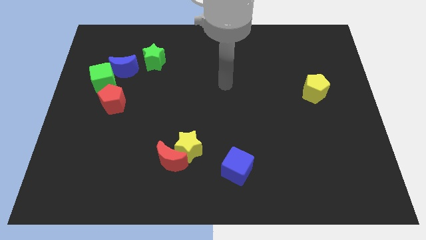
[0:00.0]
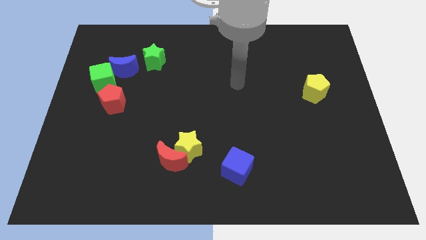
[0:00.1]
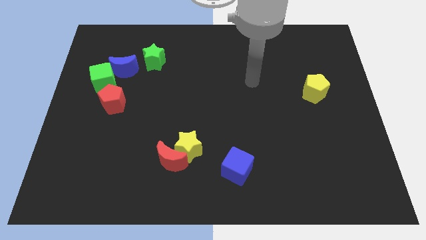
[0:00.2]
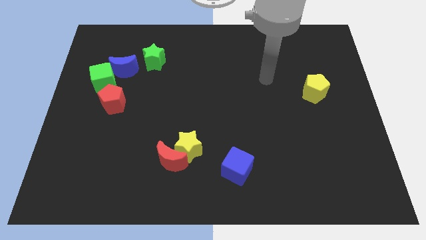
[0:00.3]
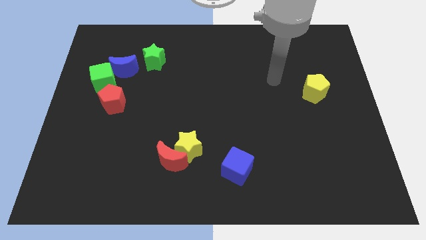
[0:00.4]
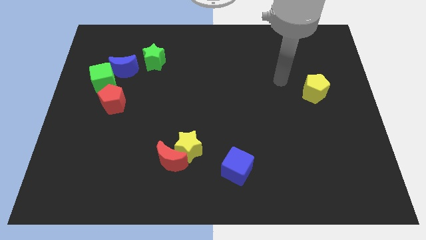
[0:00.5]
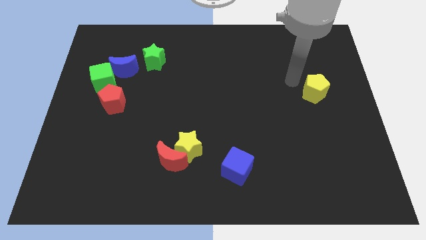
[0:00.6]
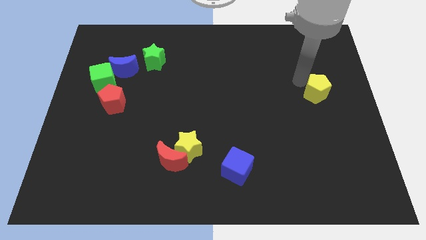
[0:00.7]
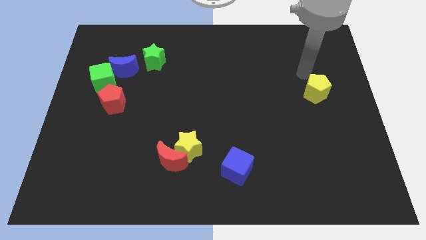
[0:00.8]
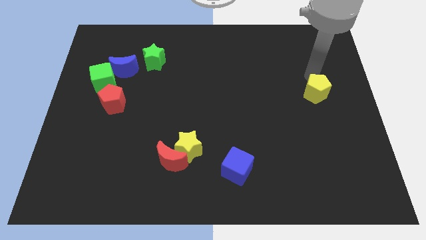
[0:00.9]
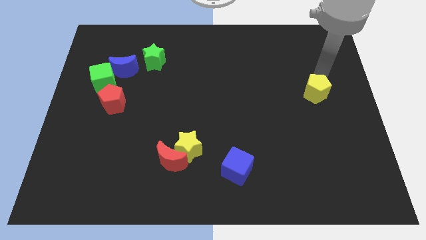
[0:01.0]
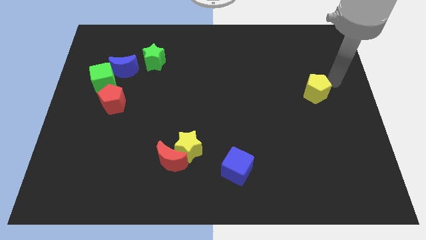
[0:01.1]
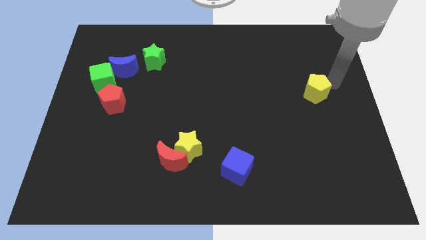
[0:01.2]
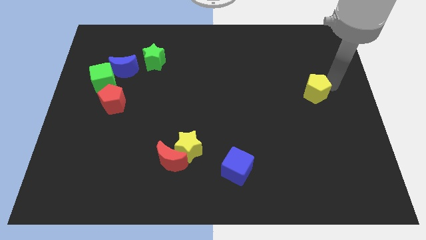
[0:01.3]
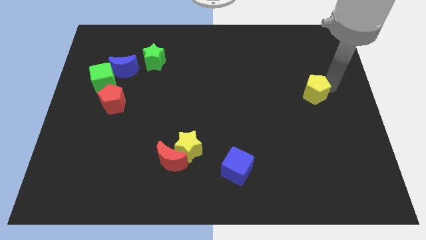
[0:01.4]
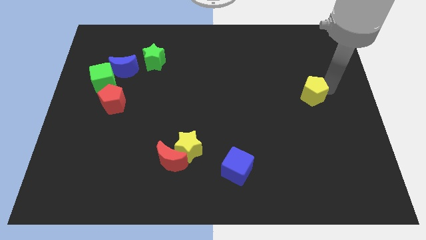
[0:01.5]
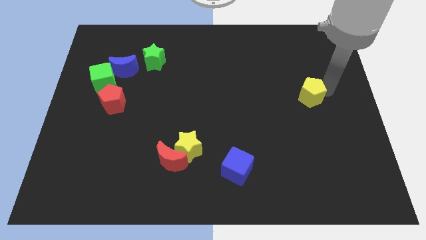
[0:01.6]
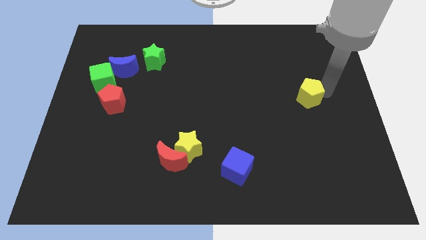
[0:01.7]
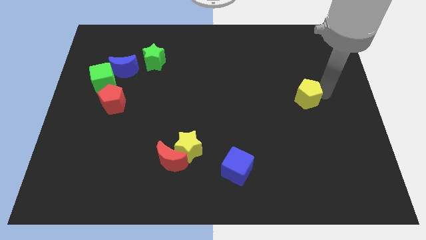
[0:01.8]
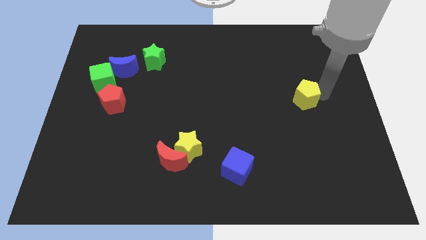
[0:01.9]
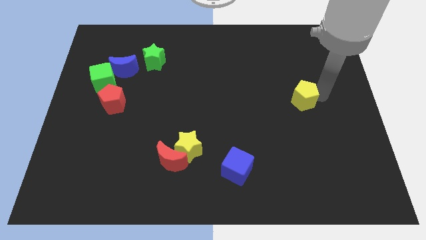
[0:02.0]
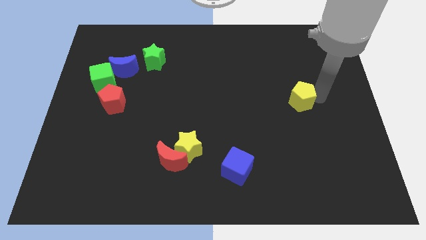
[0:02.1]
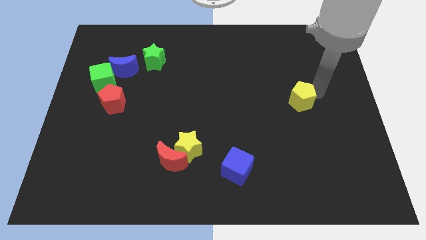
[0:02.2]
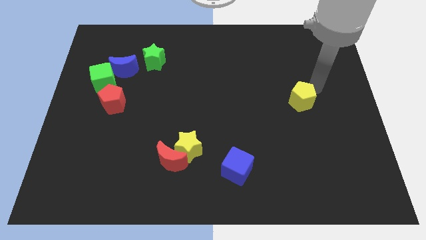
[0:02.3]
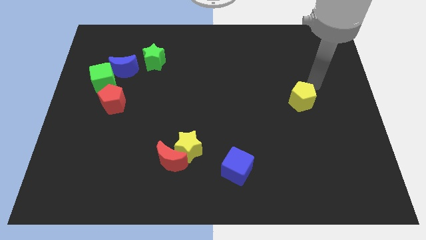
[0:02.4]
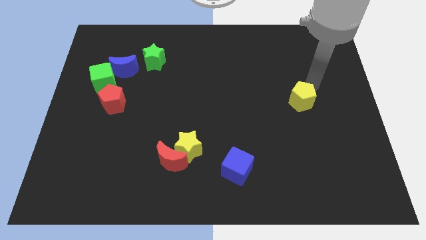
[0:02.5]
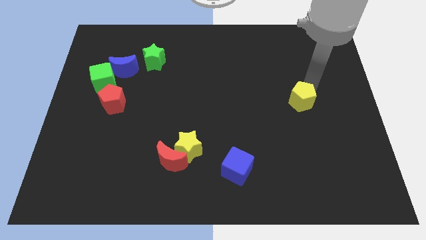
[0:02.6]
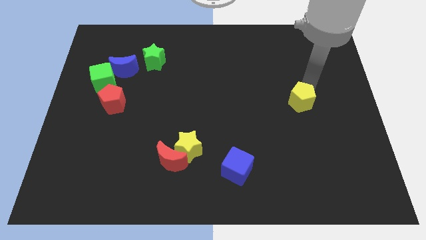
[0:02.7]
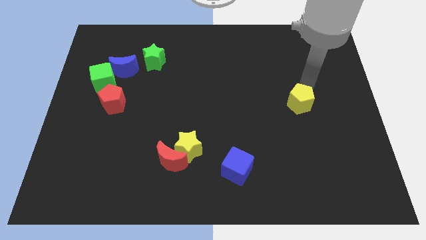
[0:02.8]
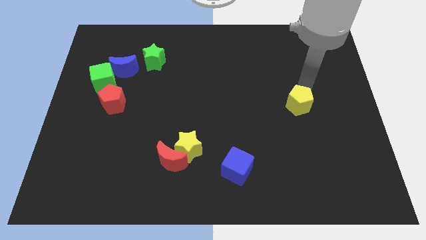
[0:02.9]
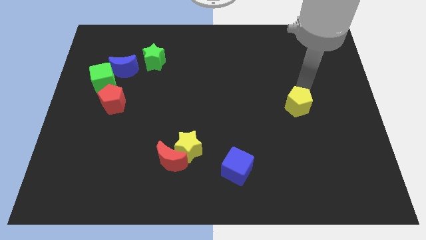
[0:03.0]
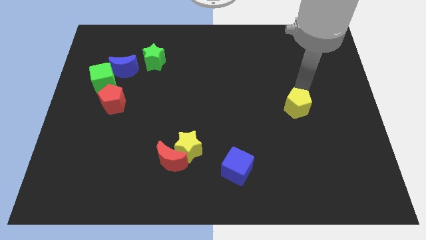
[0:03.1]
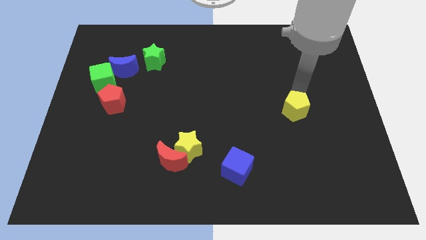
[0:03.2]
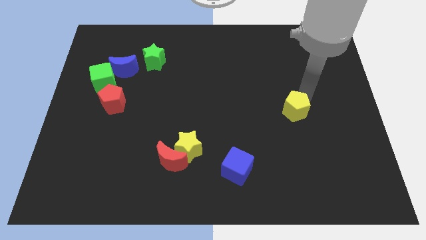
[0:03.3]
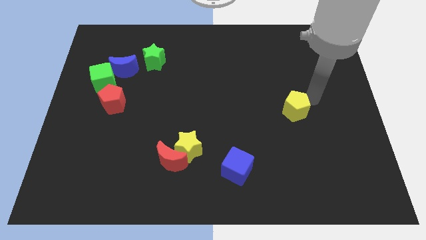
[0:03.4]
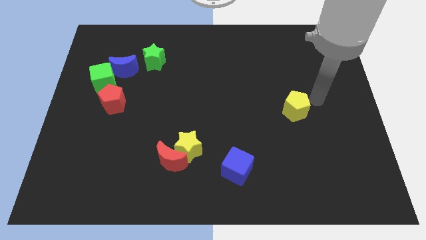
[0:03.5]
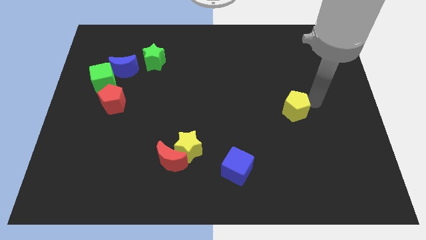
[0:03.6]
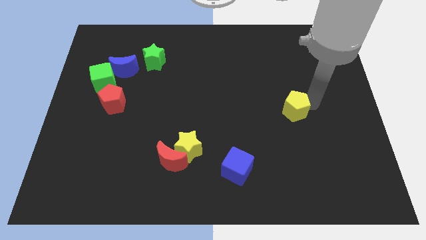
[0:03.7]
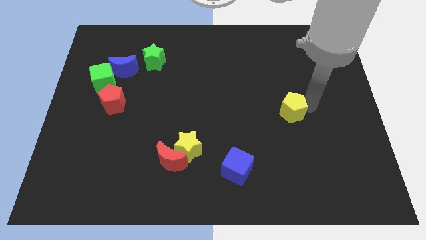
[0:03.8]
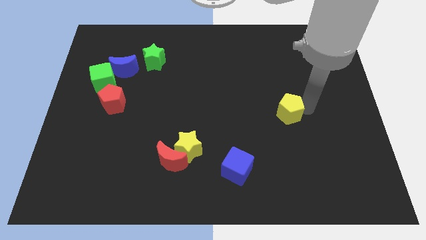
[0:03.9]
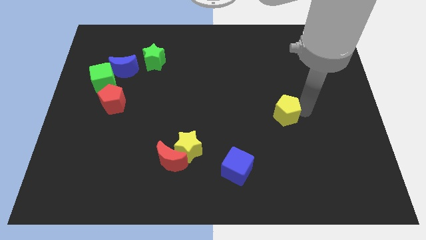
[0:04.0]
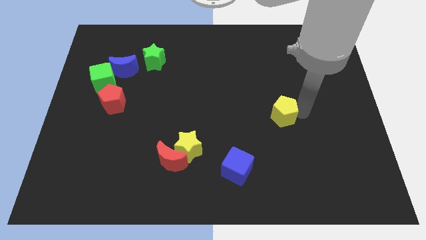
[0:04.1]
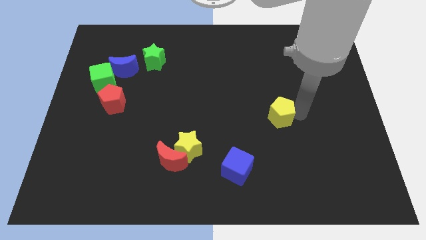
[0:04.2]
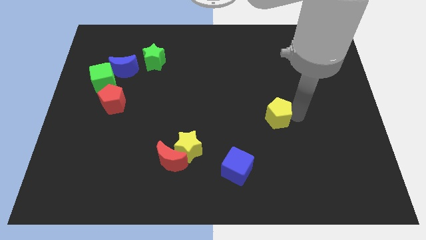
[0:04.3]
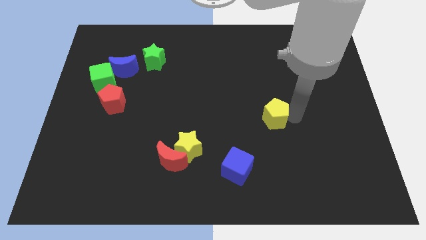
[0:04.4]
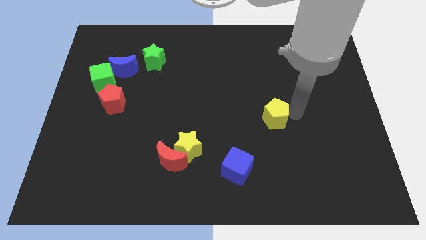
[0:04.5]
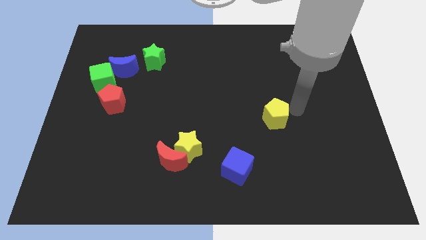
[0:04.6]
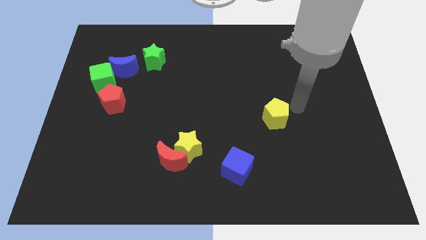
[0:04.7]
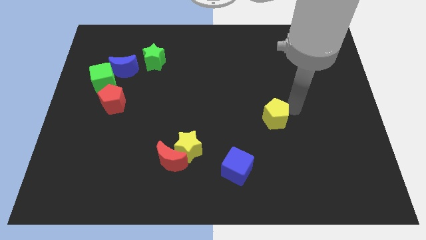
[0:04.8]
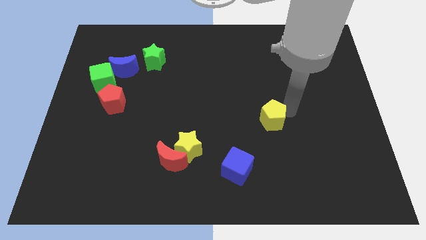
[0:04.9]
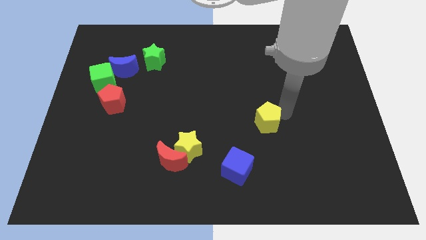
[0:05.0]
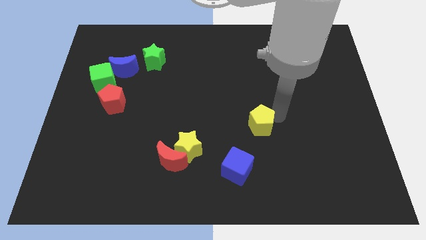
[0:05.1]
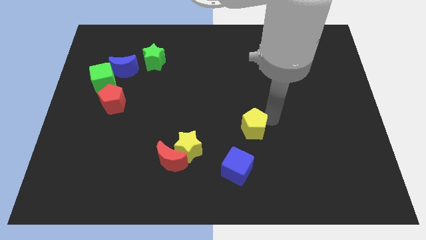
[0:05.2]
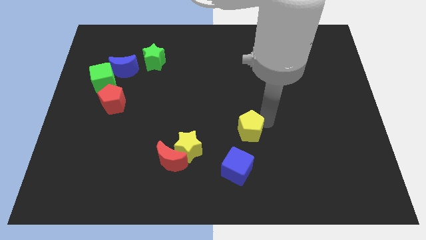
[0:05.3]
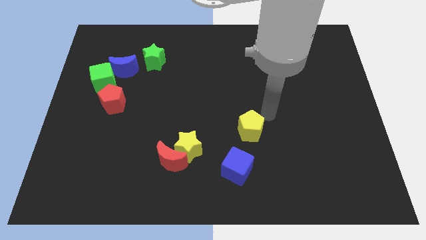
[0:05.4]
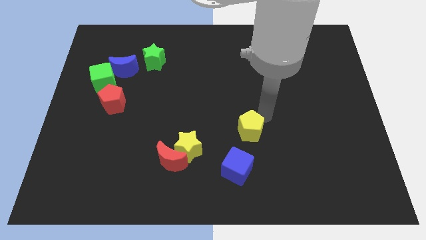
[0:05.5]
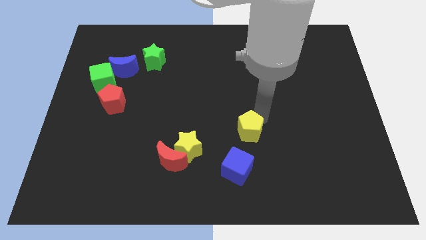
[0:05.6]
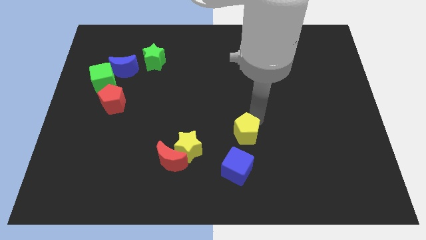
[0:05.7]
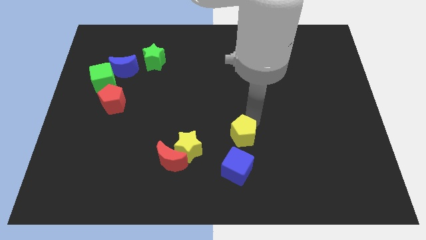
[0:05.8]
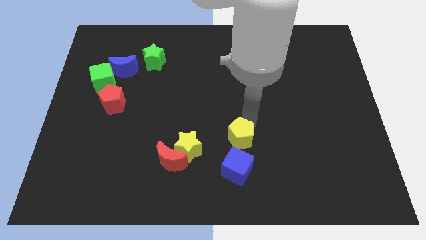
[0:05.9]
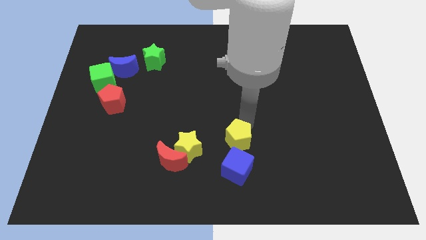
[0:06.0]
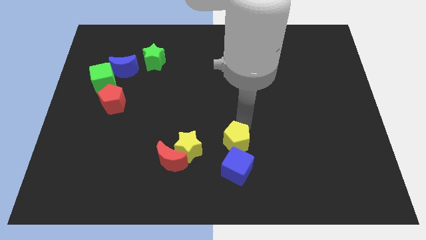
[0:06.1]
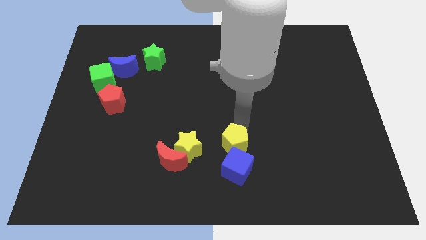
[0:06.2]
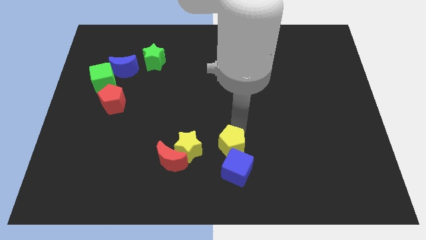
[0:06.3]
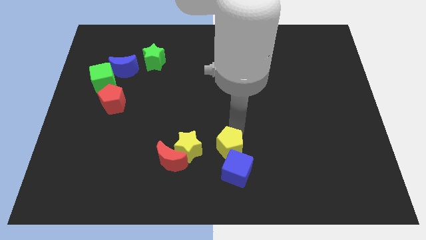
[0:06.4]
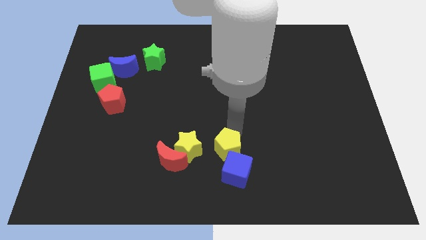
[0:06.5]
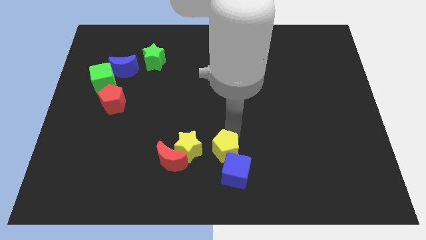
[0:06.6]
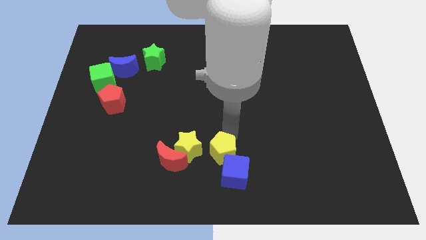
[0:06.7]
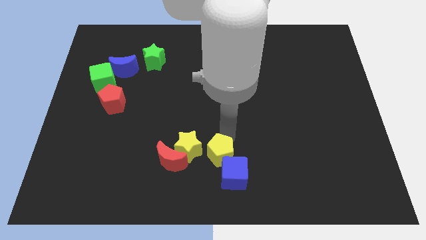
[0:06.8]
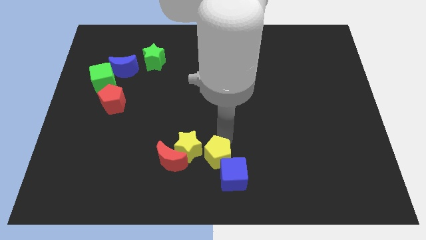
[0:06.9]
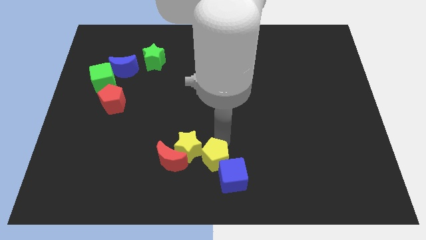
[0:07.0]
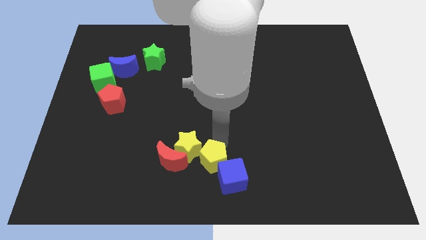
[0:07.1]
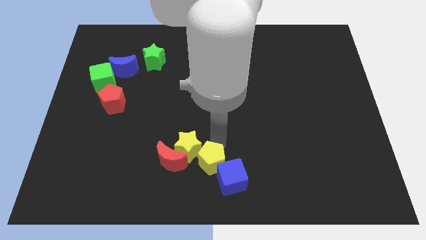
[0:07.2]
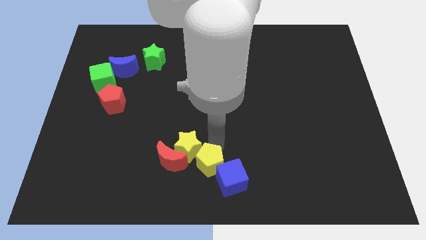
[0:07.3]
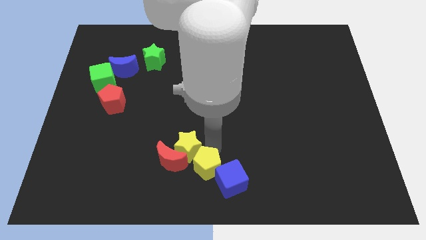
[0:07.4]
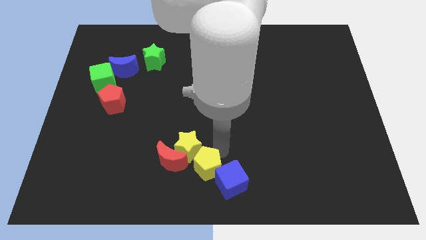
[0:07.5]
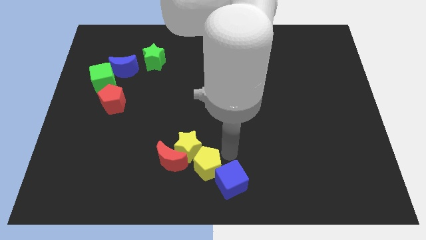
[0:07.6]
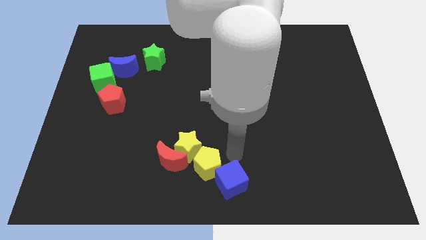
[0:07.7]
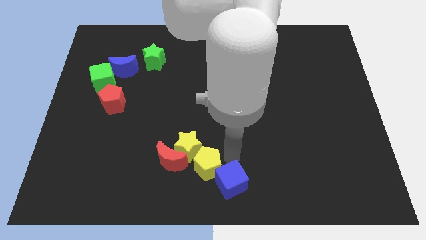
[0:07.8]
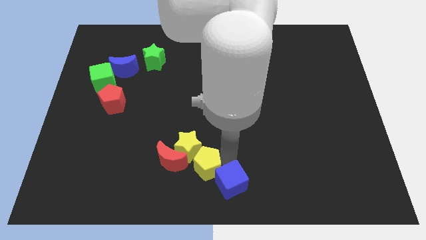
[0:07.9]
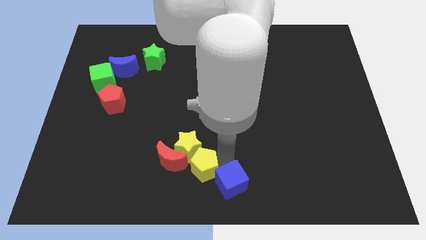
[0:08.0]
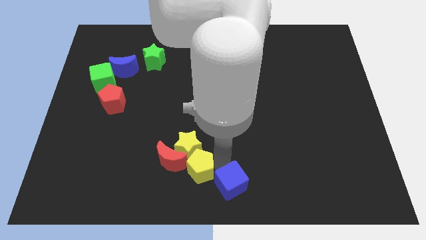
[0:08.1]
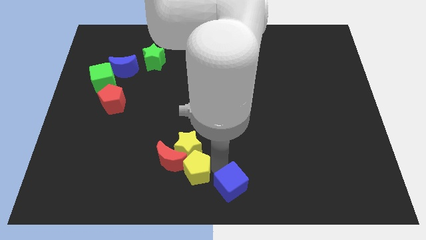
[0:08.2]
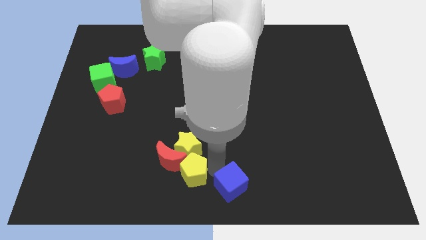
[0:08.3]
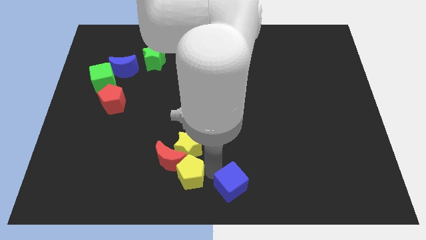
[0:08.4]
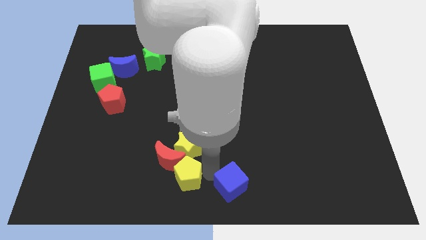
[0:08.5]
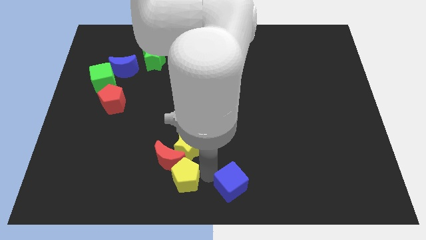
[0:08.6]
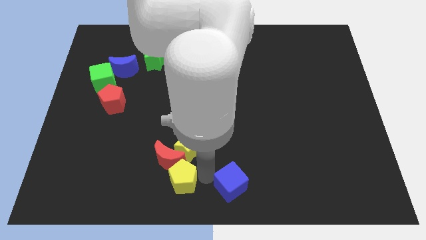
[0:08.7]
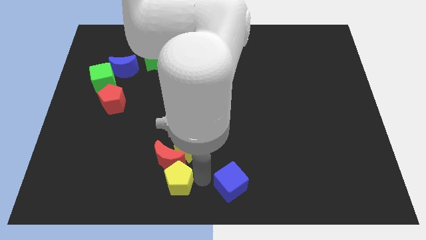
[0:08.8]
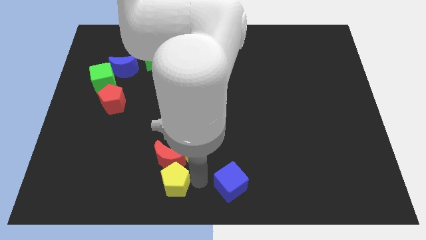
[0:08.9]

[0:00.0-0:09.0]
put the yellow pentagon diagonally down and to the left of the red moon

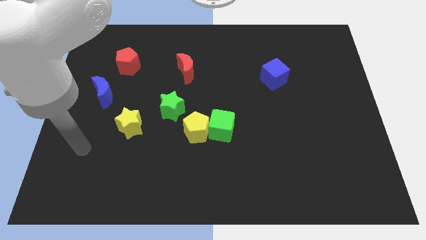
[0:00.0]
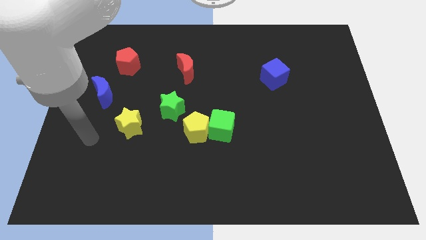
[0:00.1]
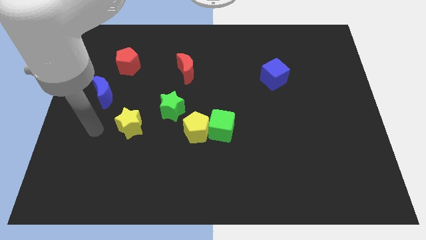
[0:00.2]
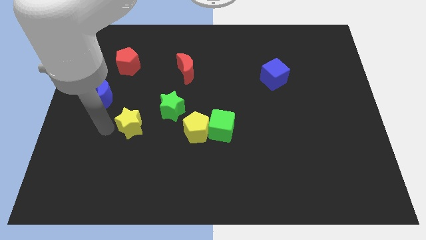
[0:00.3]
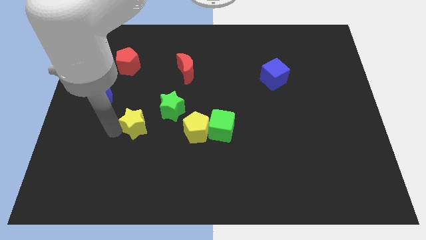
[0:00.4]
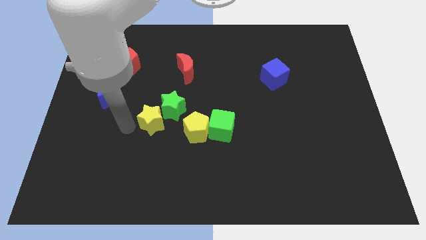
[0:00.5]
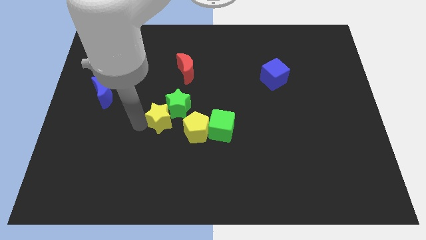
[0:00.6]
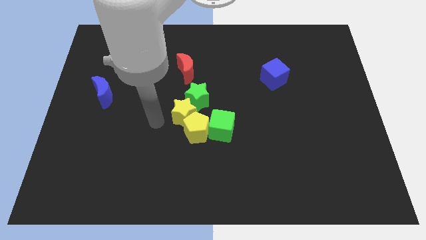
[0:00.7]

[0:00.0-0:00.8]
put the green star to the bottom right side of the red moon
